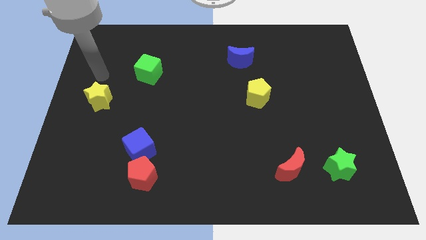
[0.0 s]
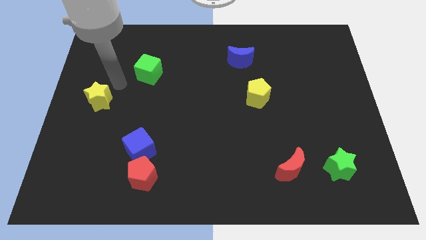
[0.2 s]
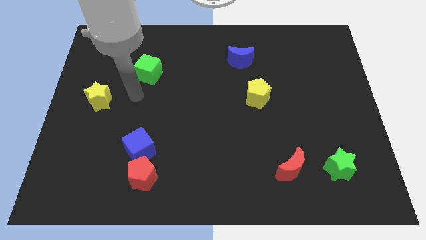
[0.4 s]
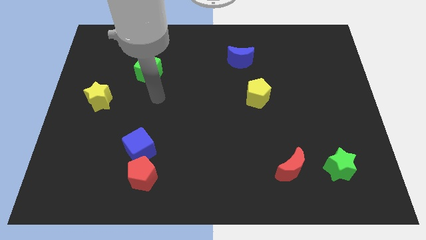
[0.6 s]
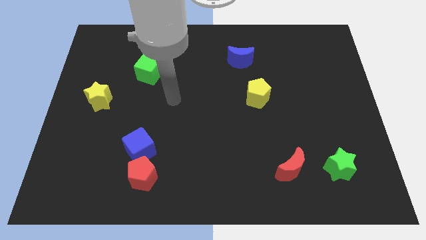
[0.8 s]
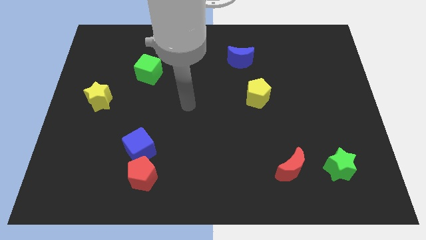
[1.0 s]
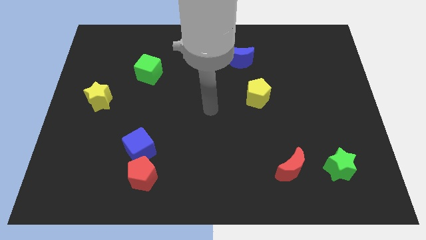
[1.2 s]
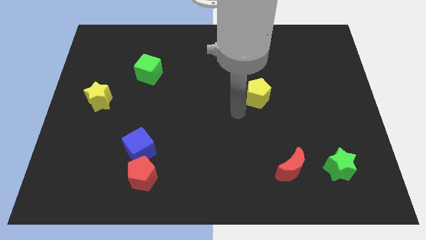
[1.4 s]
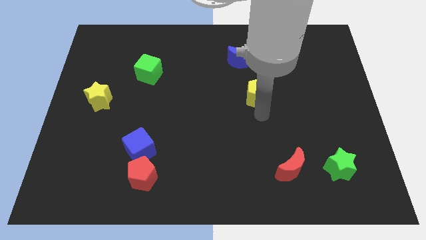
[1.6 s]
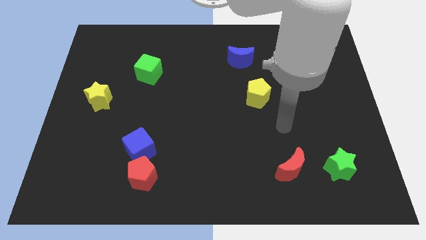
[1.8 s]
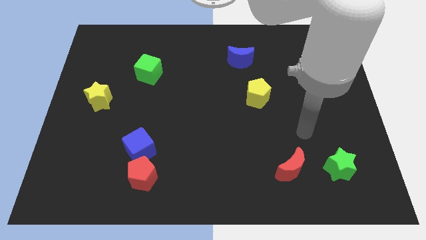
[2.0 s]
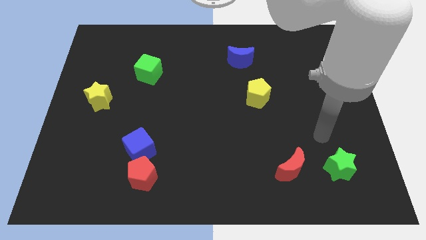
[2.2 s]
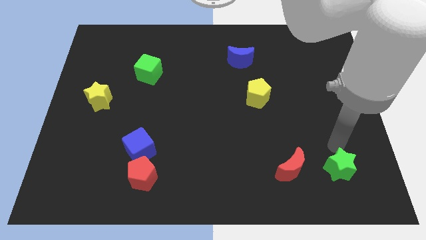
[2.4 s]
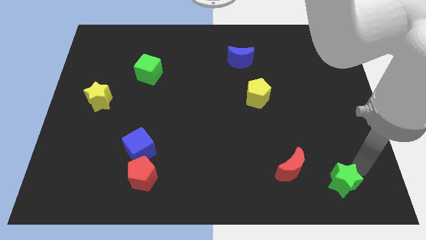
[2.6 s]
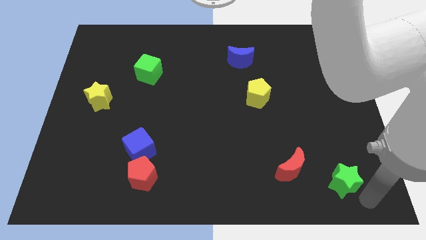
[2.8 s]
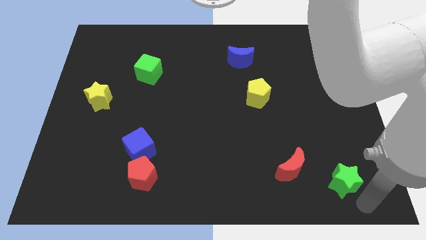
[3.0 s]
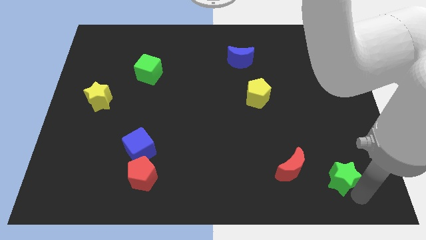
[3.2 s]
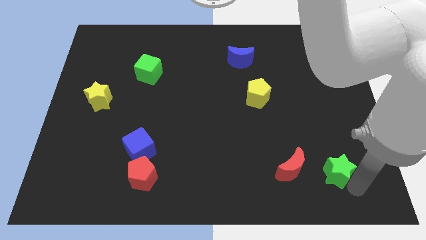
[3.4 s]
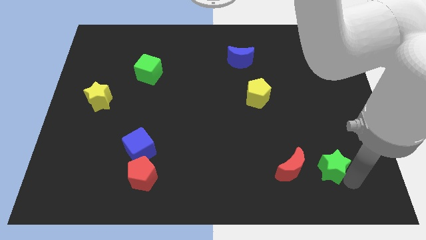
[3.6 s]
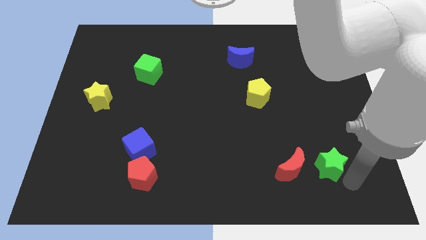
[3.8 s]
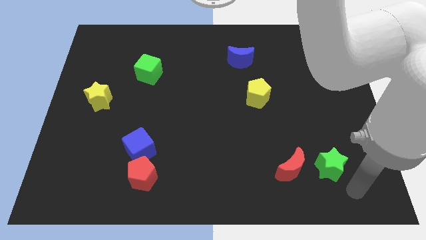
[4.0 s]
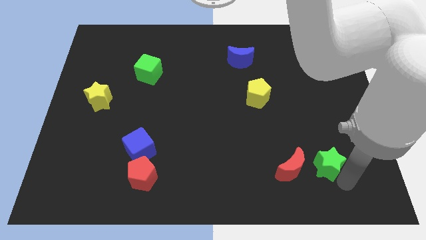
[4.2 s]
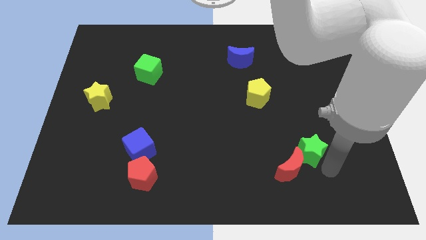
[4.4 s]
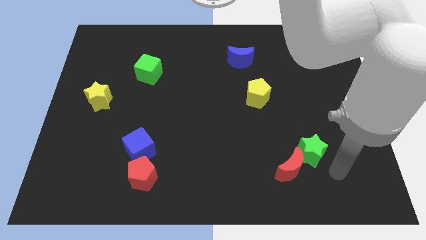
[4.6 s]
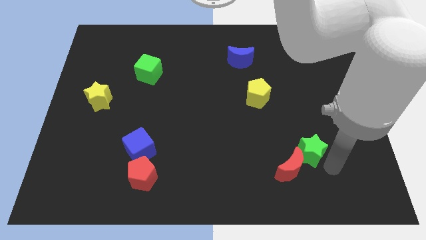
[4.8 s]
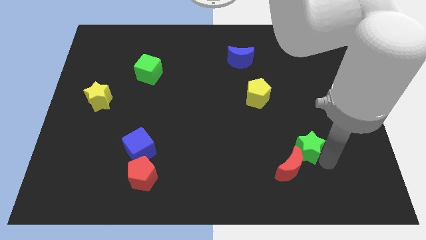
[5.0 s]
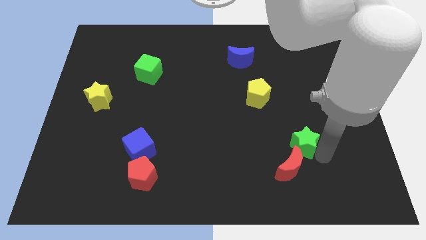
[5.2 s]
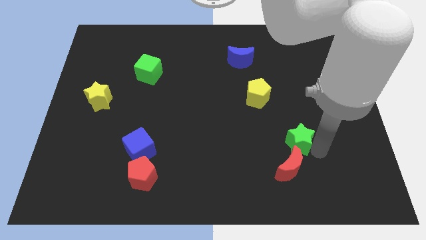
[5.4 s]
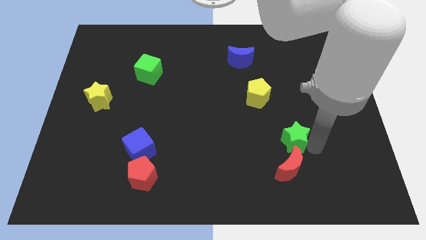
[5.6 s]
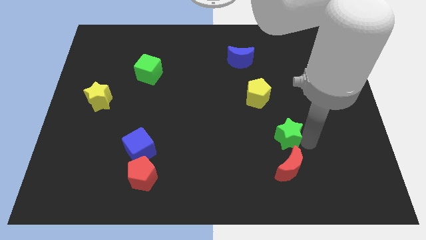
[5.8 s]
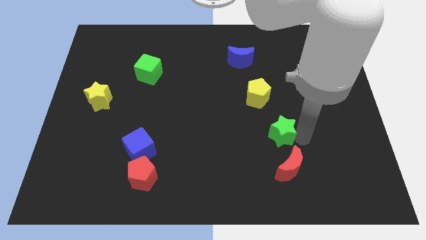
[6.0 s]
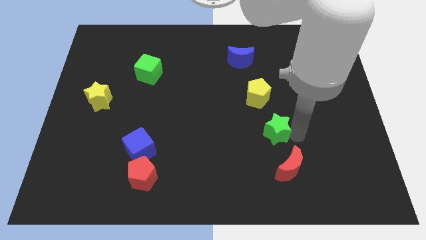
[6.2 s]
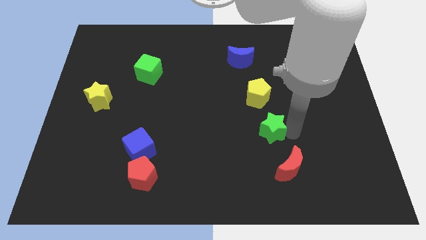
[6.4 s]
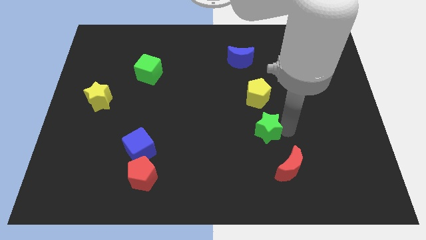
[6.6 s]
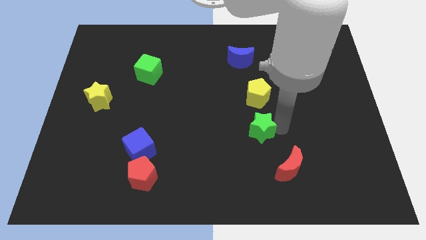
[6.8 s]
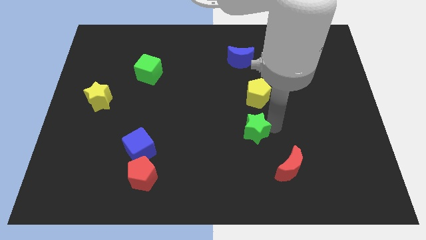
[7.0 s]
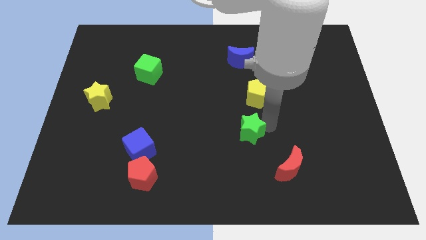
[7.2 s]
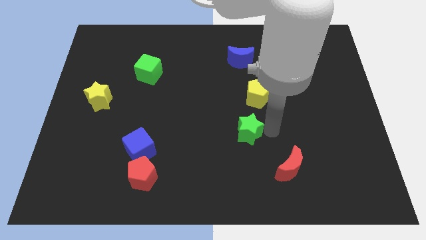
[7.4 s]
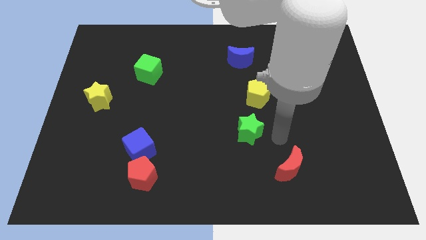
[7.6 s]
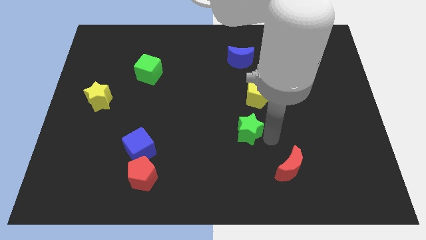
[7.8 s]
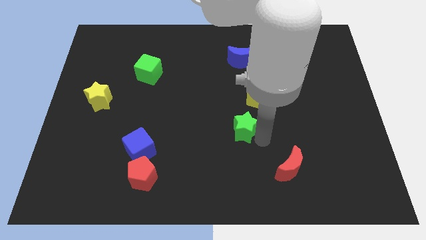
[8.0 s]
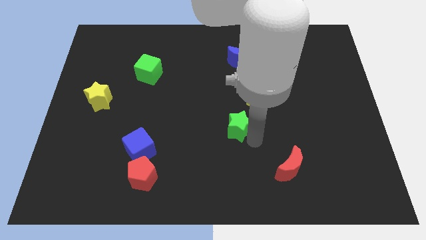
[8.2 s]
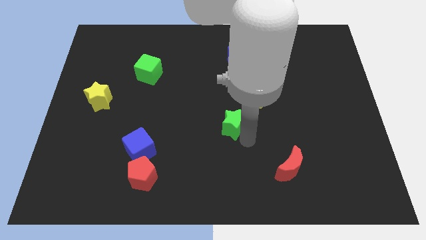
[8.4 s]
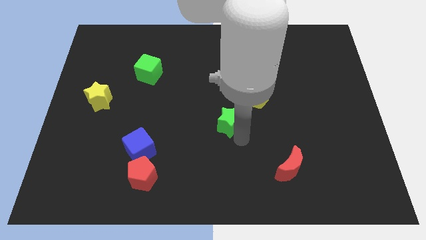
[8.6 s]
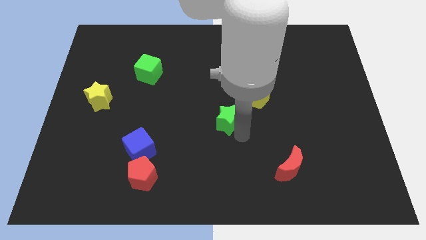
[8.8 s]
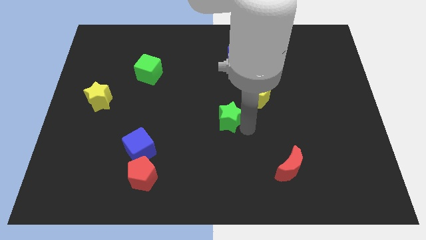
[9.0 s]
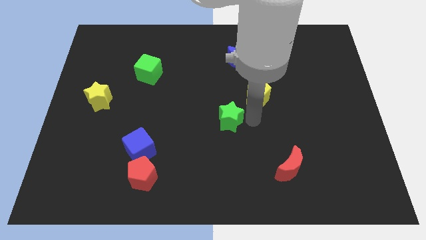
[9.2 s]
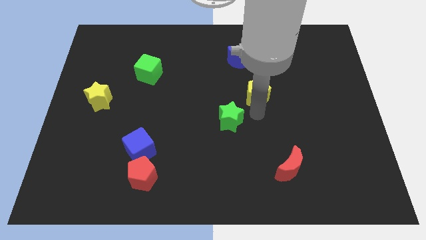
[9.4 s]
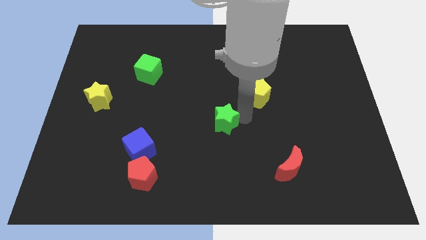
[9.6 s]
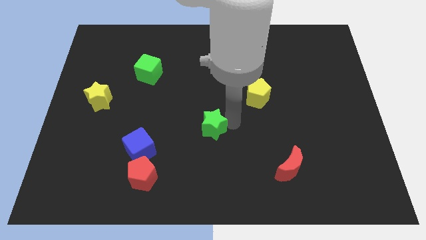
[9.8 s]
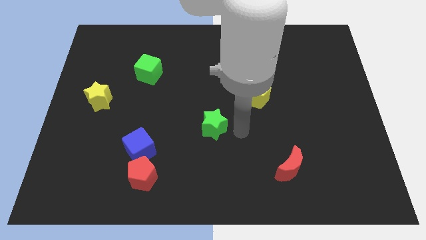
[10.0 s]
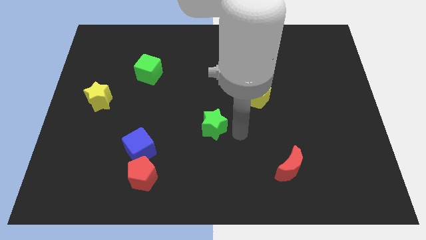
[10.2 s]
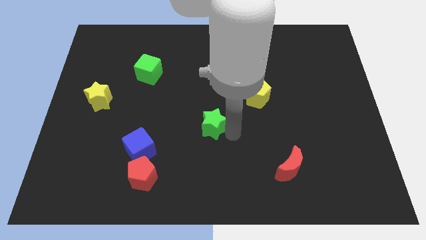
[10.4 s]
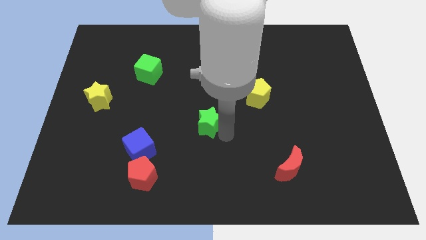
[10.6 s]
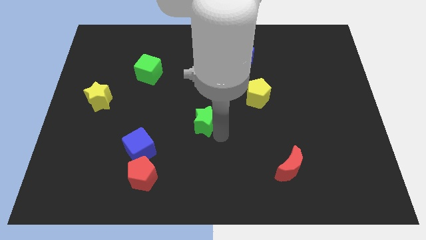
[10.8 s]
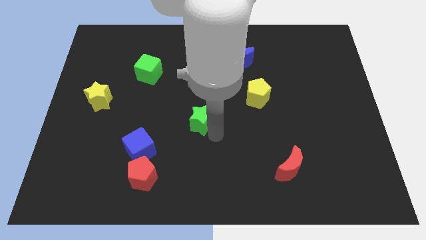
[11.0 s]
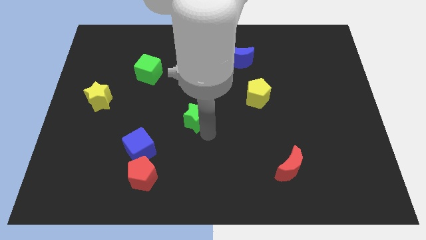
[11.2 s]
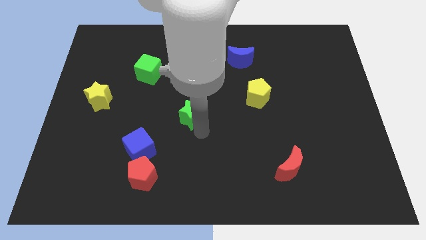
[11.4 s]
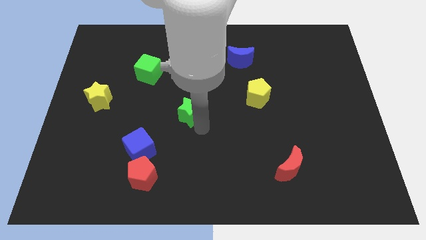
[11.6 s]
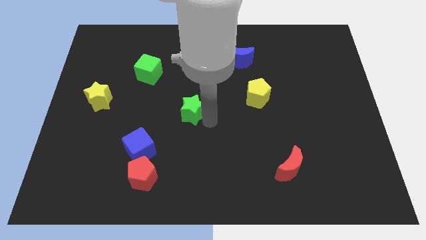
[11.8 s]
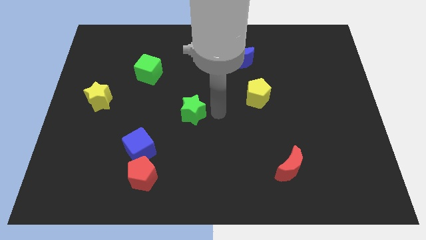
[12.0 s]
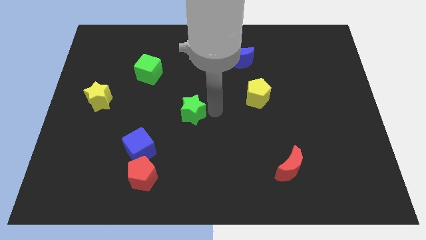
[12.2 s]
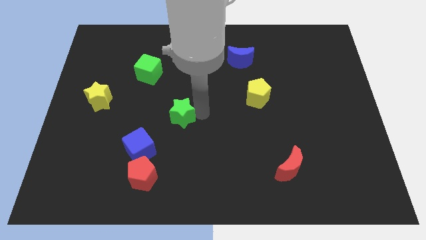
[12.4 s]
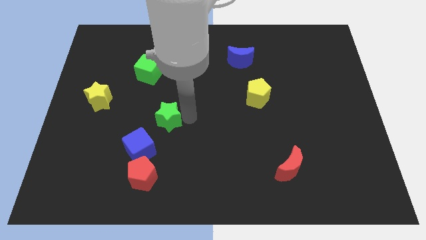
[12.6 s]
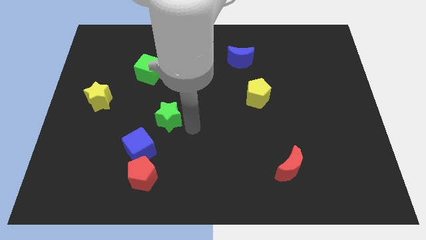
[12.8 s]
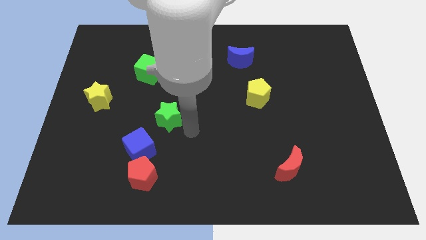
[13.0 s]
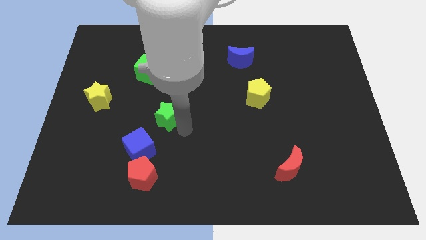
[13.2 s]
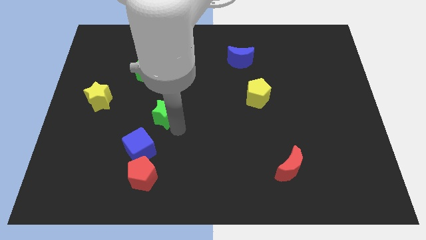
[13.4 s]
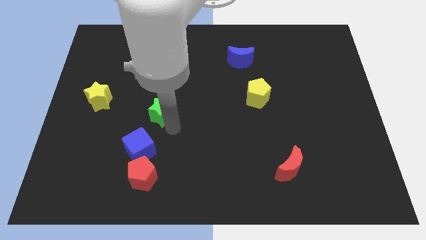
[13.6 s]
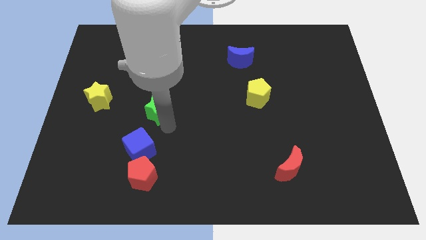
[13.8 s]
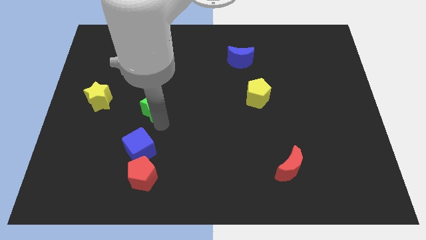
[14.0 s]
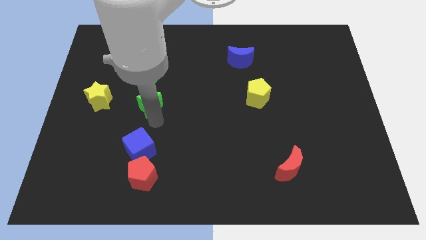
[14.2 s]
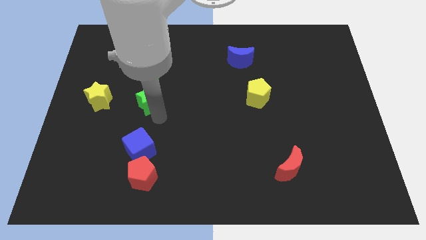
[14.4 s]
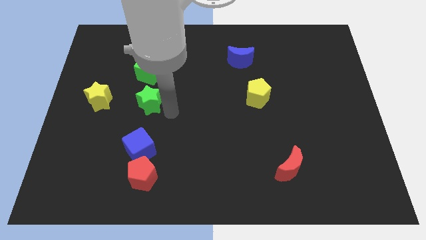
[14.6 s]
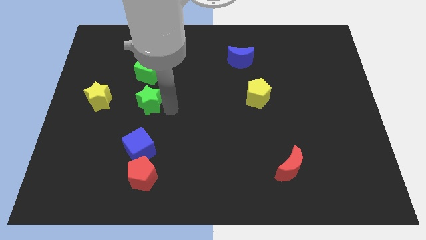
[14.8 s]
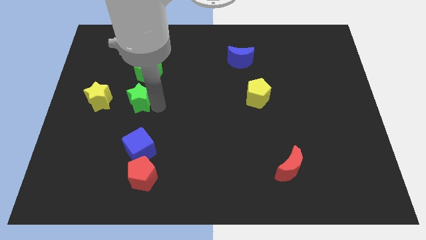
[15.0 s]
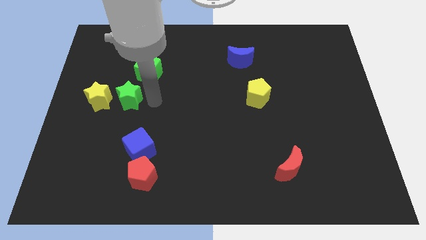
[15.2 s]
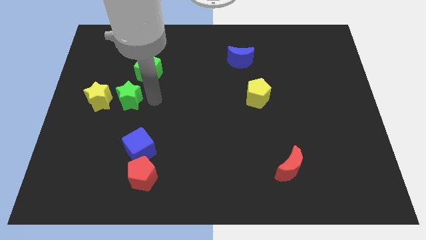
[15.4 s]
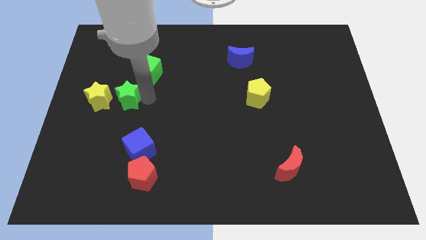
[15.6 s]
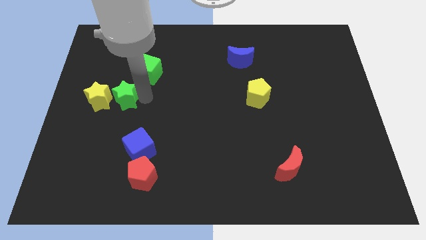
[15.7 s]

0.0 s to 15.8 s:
put the green star to the yellow star
